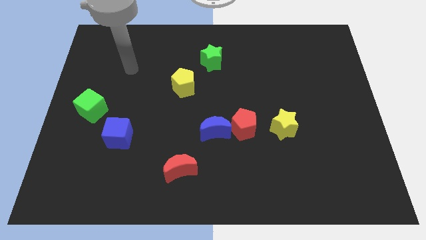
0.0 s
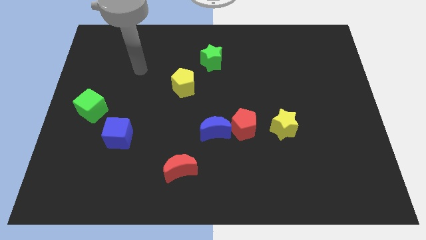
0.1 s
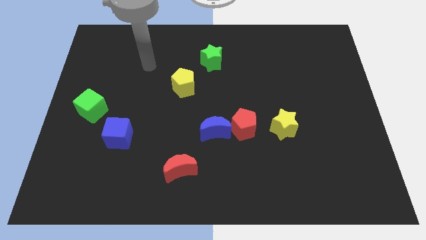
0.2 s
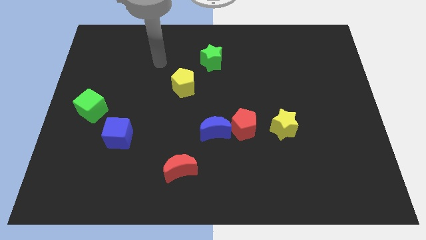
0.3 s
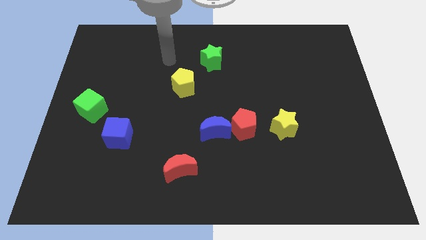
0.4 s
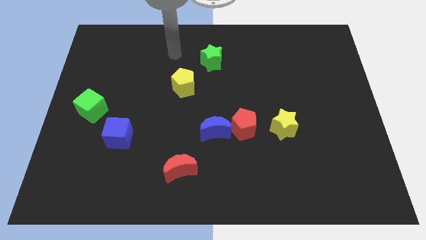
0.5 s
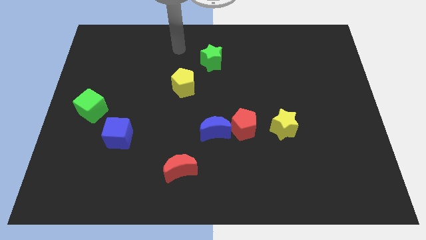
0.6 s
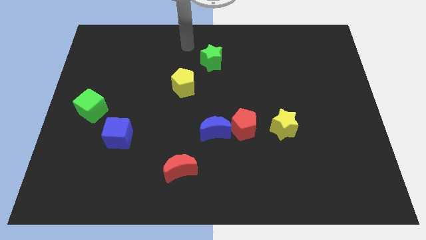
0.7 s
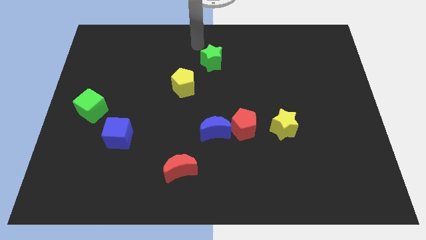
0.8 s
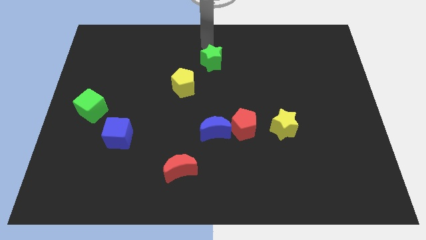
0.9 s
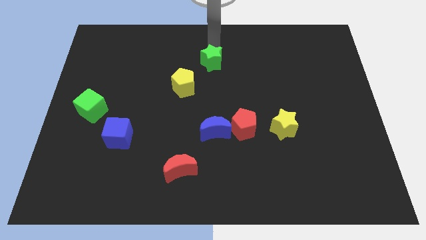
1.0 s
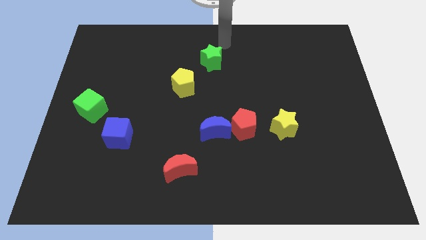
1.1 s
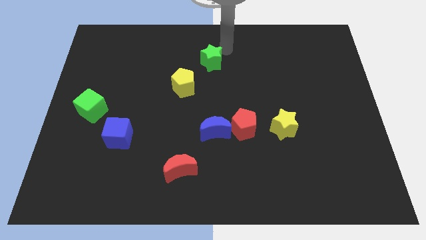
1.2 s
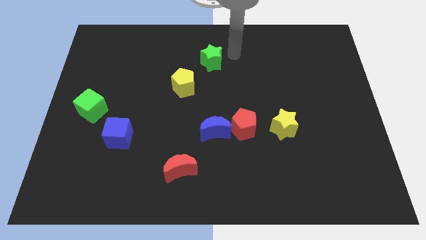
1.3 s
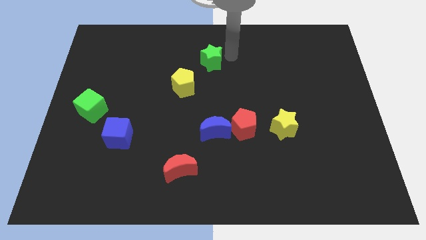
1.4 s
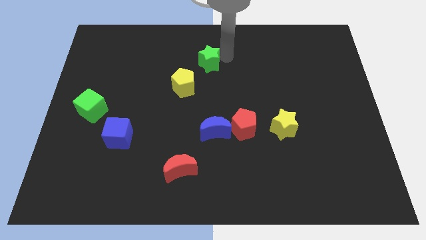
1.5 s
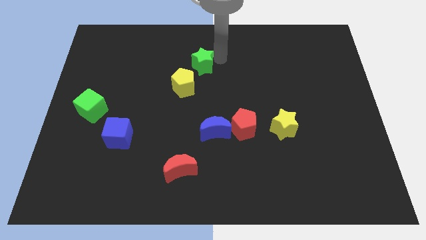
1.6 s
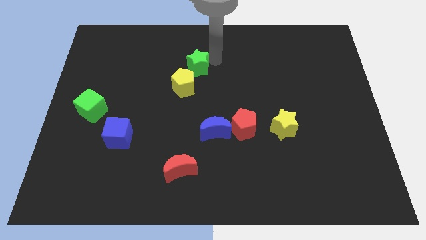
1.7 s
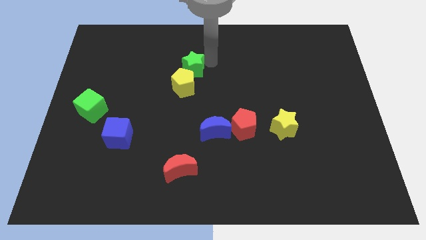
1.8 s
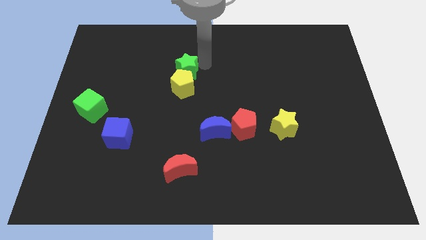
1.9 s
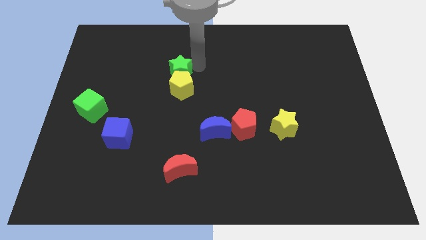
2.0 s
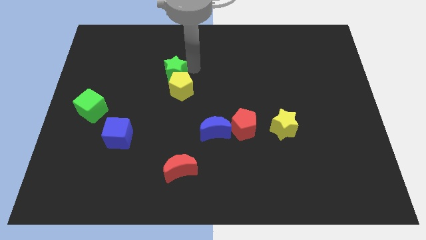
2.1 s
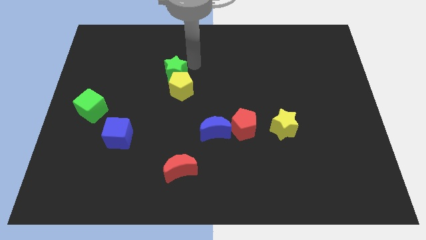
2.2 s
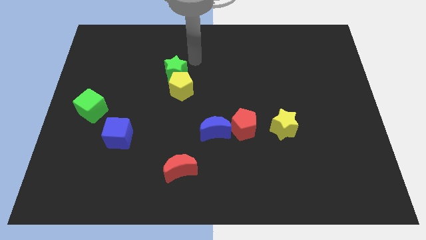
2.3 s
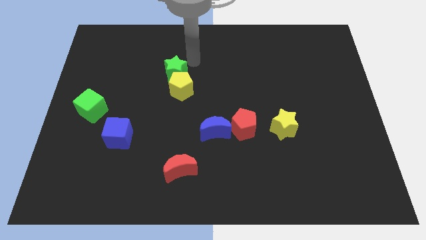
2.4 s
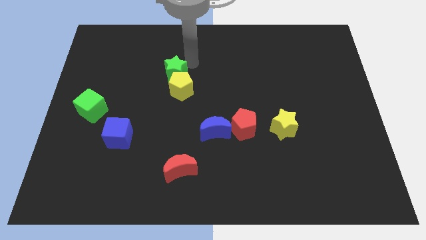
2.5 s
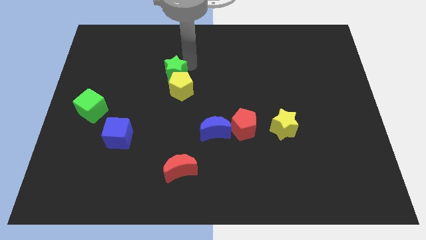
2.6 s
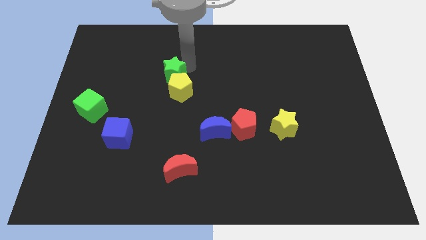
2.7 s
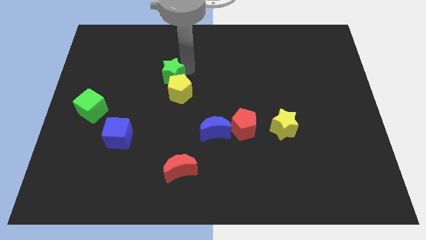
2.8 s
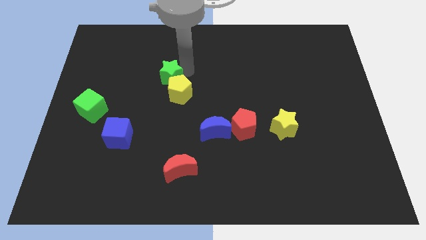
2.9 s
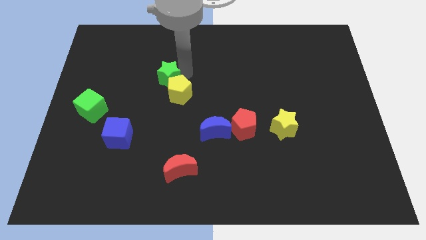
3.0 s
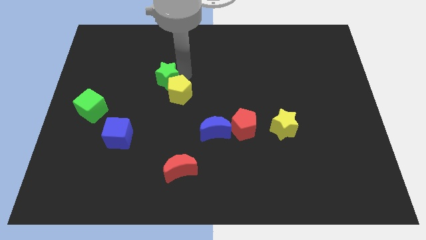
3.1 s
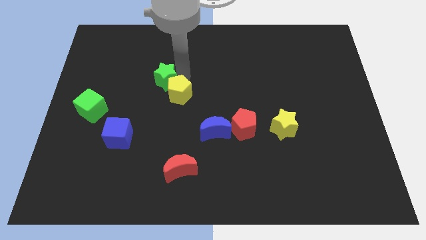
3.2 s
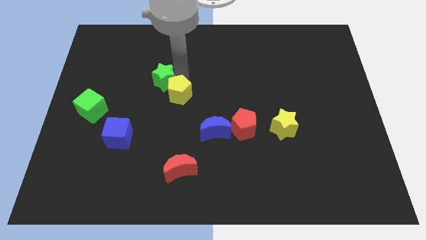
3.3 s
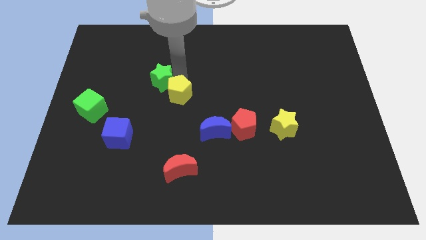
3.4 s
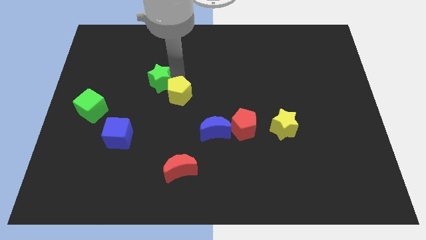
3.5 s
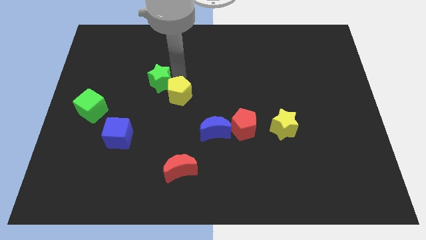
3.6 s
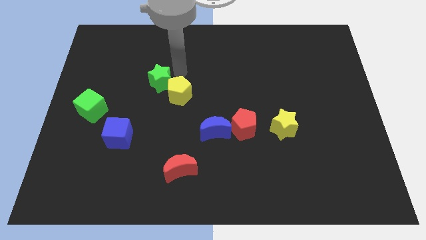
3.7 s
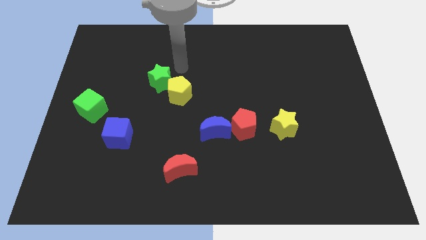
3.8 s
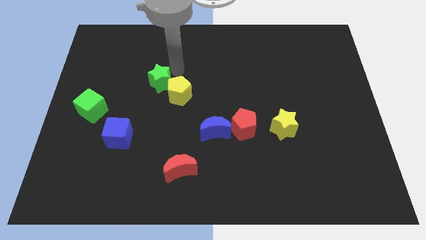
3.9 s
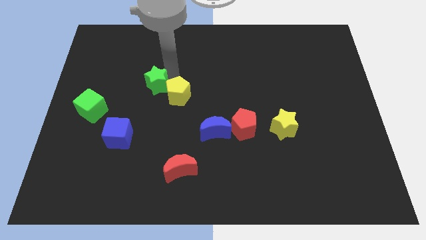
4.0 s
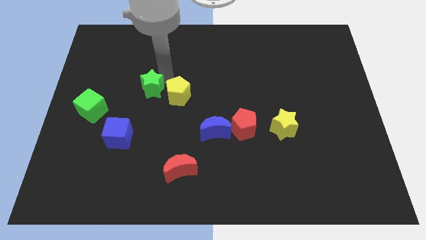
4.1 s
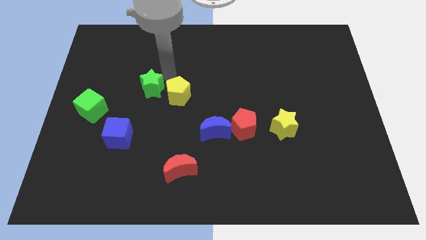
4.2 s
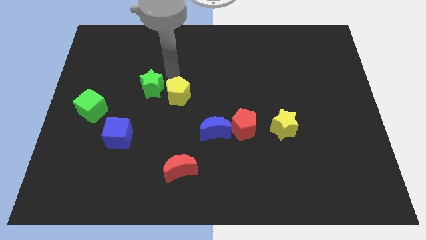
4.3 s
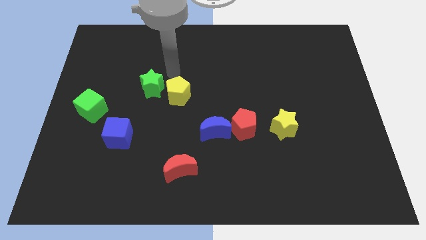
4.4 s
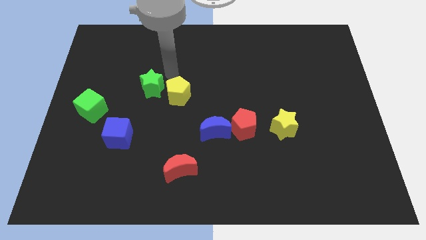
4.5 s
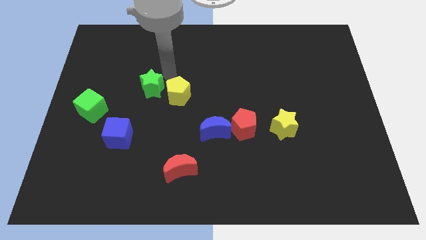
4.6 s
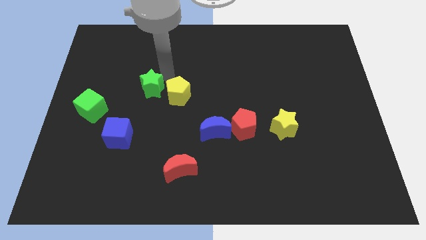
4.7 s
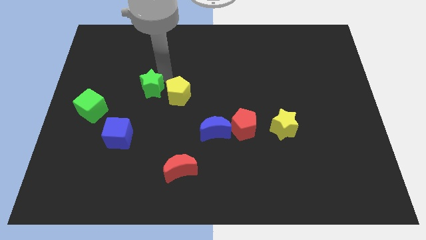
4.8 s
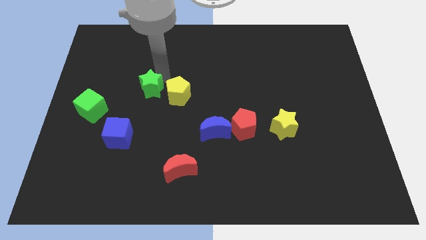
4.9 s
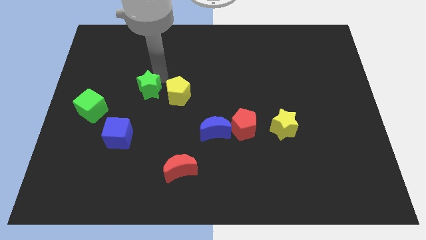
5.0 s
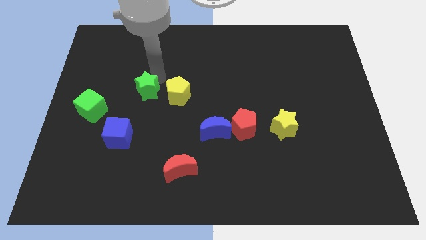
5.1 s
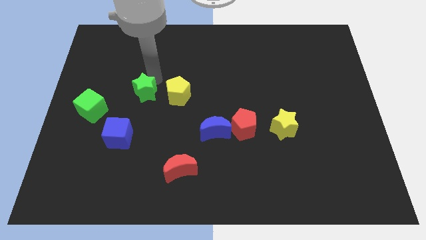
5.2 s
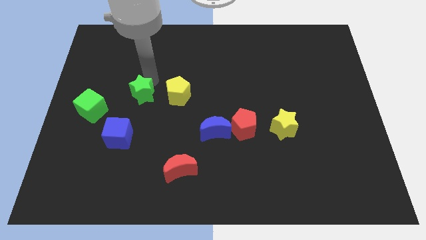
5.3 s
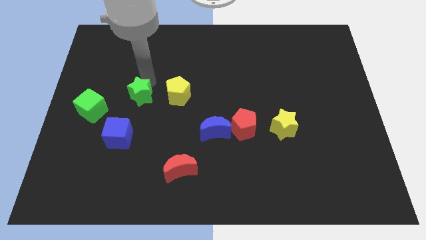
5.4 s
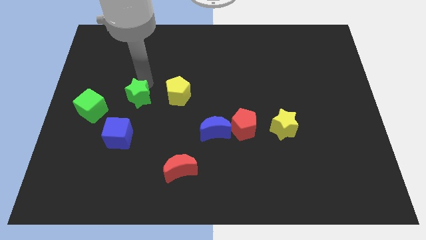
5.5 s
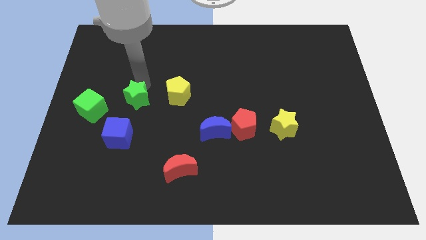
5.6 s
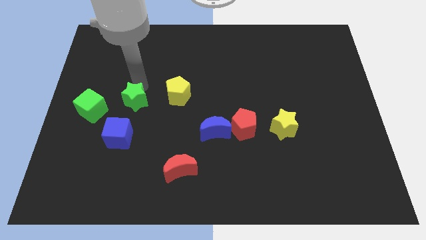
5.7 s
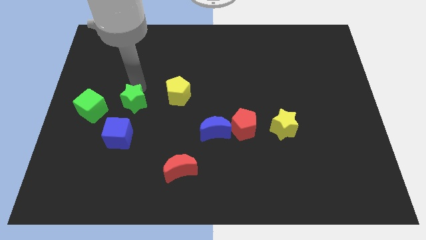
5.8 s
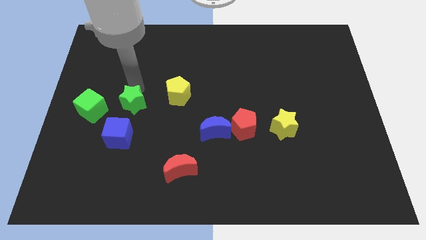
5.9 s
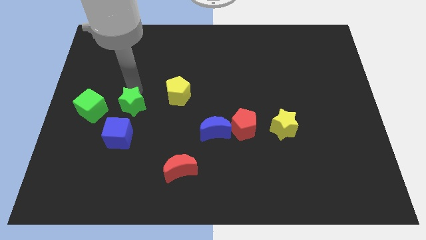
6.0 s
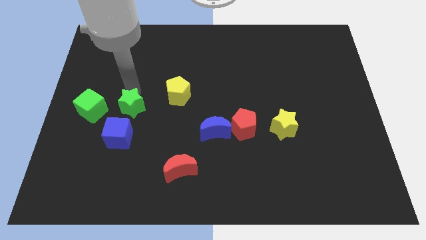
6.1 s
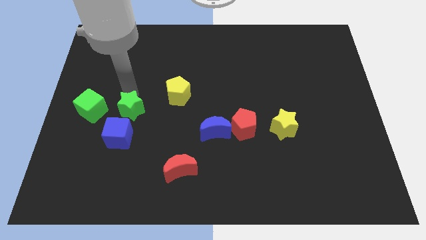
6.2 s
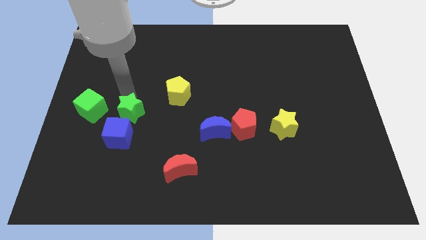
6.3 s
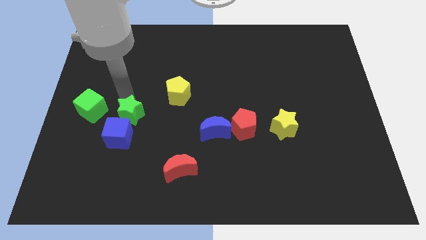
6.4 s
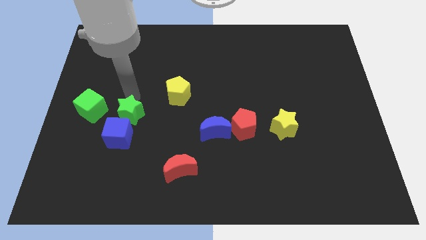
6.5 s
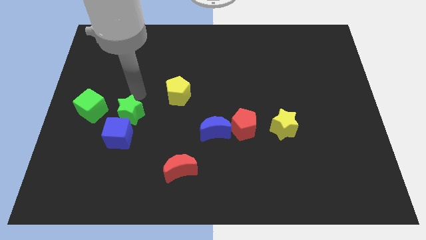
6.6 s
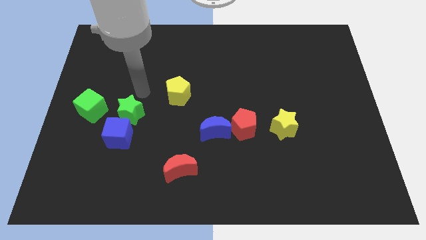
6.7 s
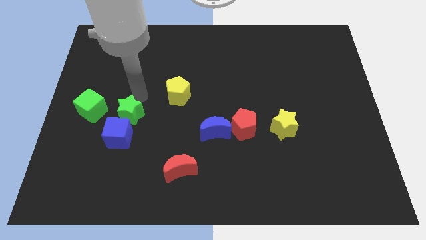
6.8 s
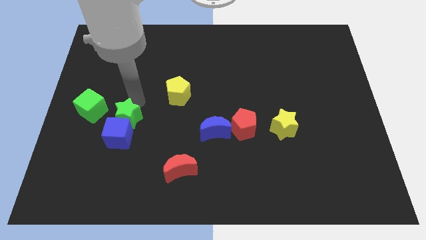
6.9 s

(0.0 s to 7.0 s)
move the green star to the blue cube

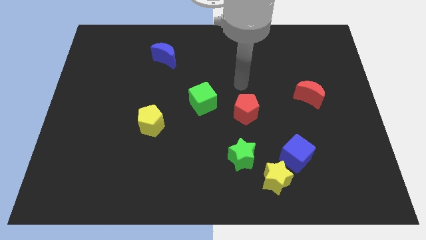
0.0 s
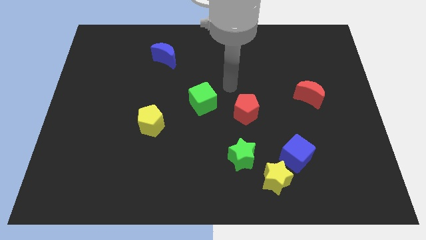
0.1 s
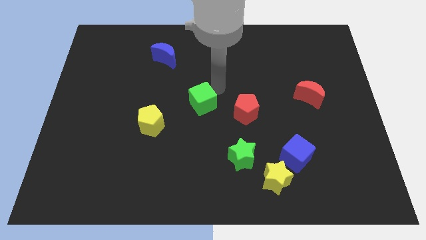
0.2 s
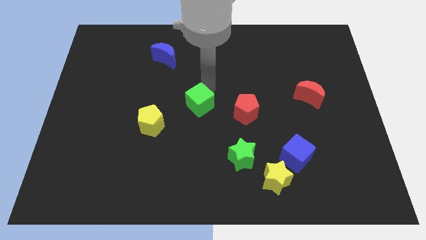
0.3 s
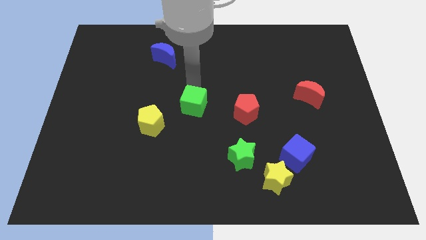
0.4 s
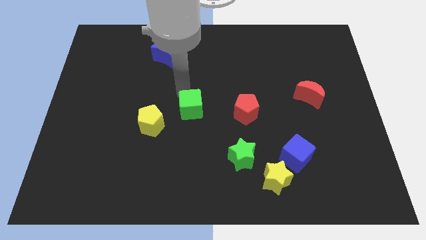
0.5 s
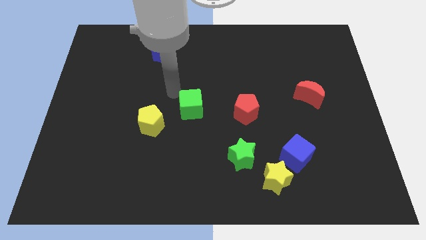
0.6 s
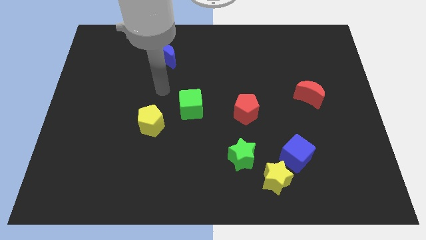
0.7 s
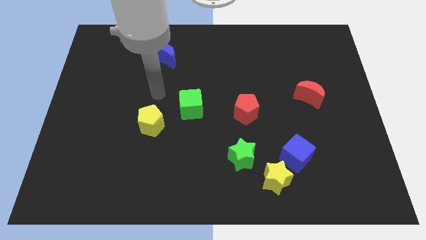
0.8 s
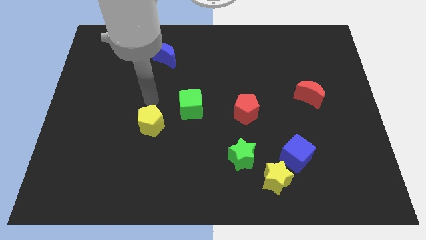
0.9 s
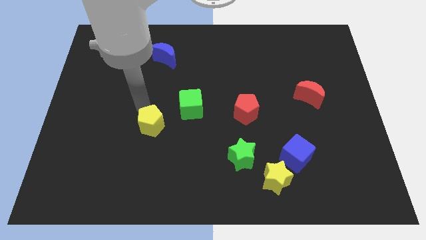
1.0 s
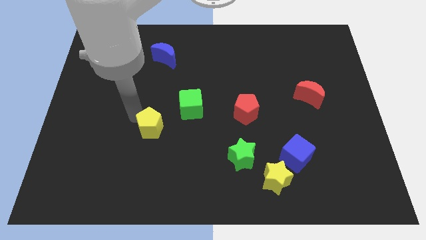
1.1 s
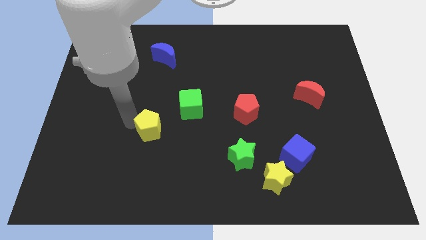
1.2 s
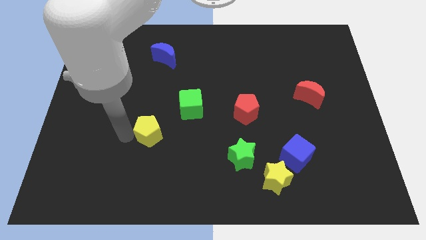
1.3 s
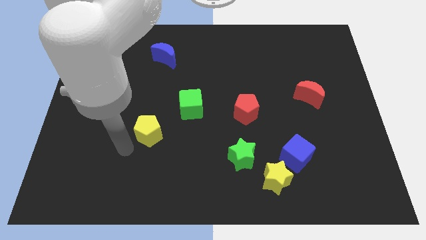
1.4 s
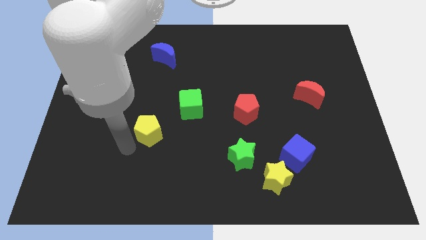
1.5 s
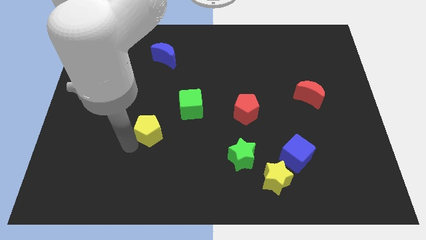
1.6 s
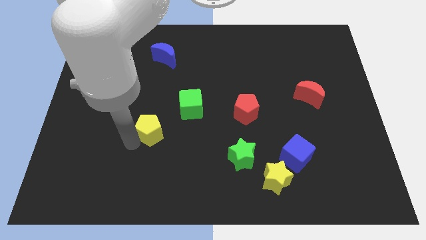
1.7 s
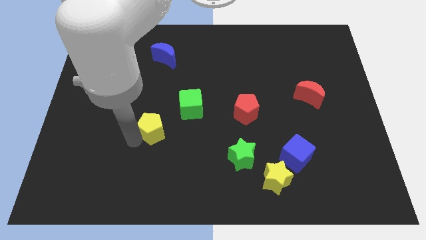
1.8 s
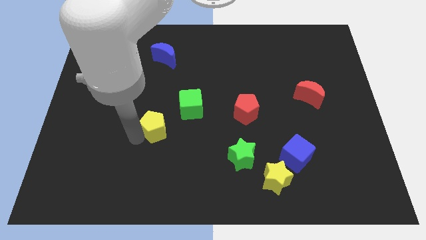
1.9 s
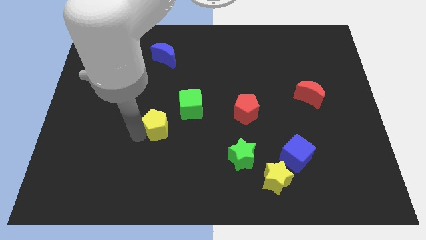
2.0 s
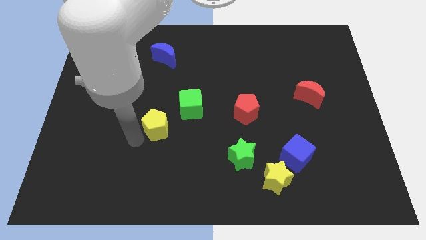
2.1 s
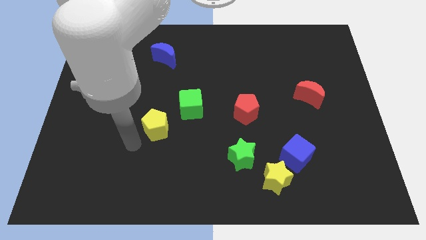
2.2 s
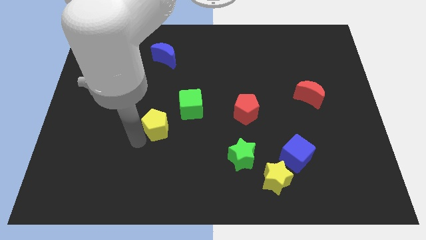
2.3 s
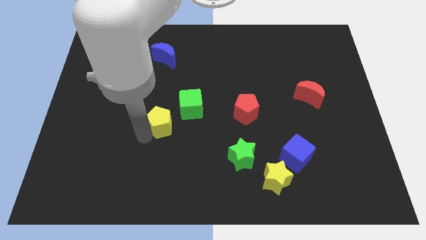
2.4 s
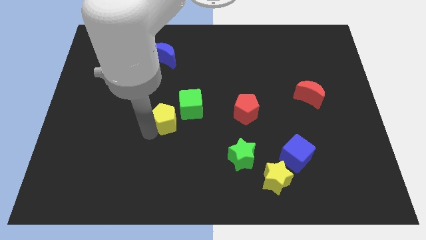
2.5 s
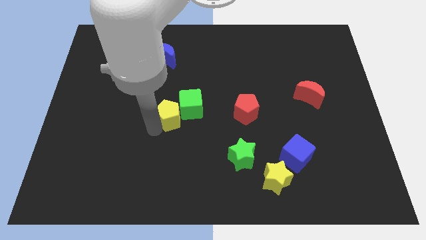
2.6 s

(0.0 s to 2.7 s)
push the yellow pentagon to the green cube
